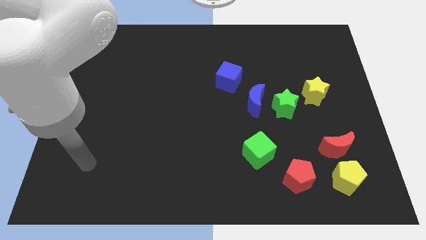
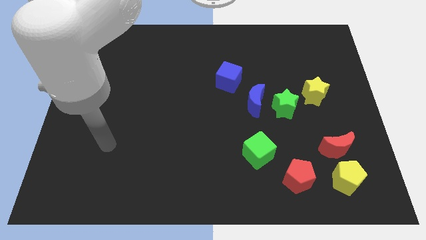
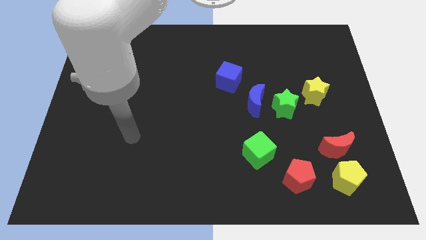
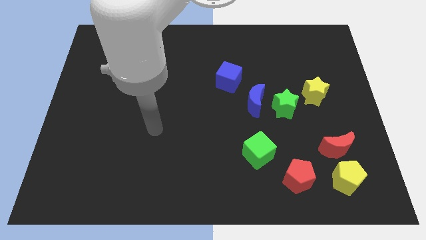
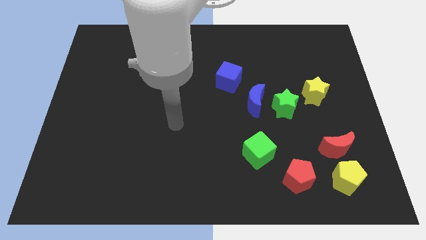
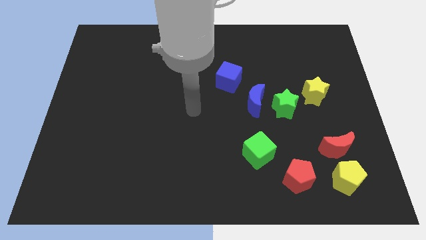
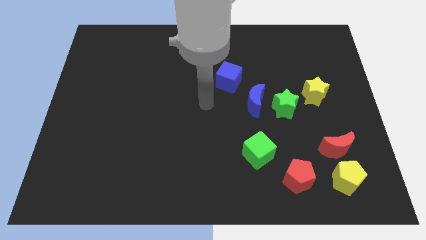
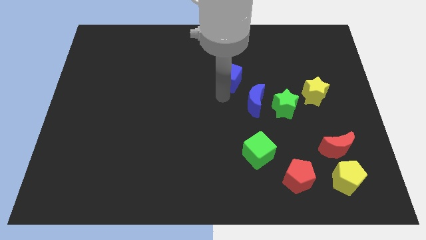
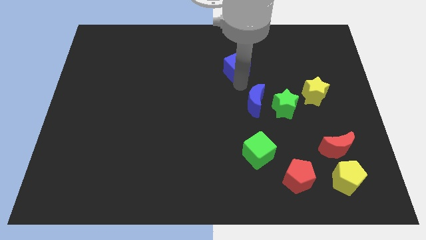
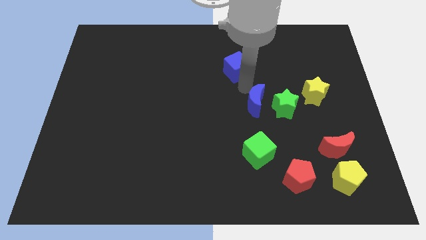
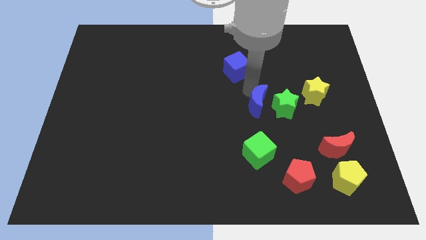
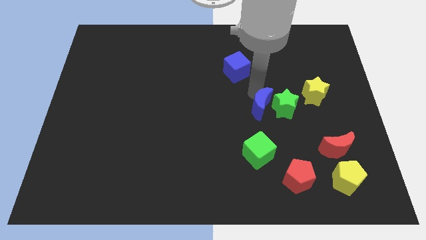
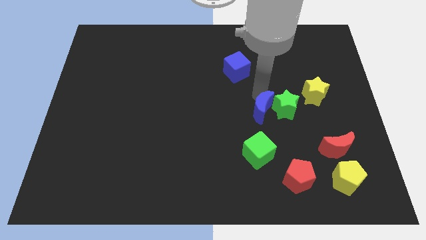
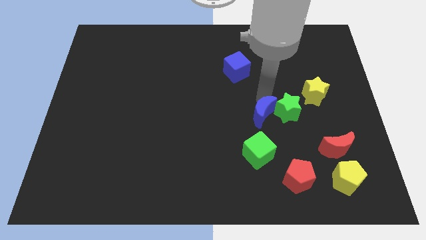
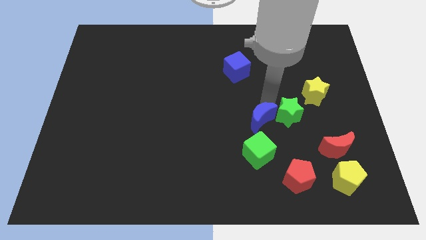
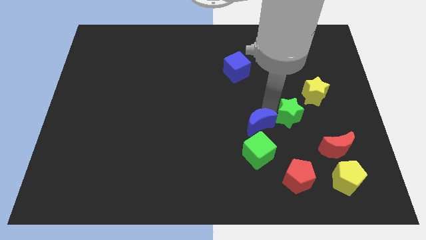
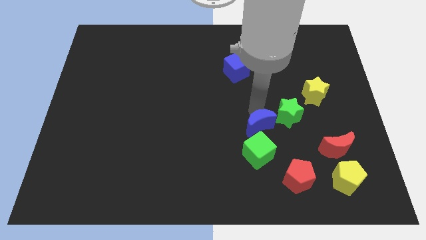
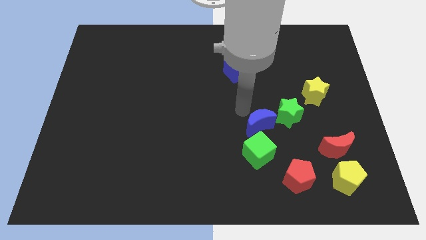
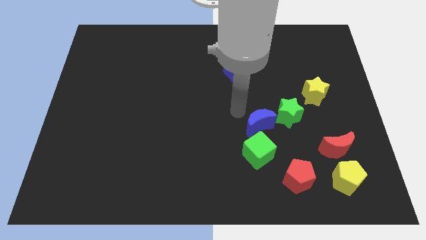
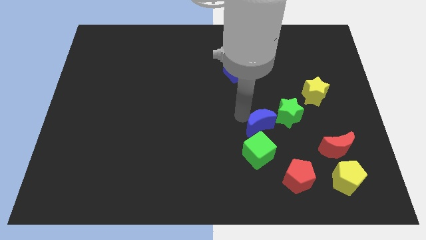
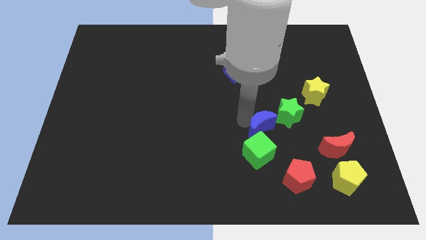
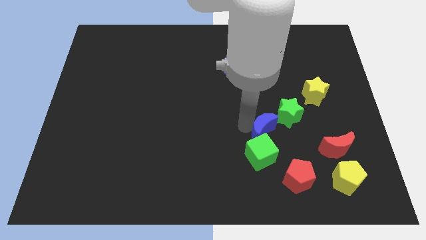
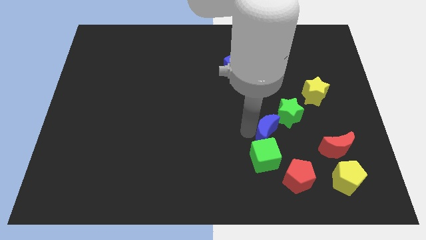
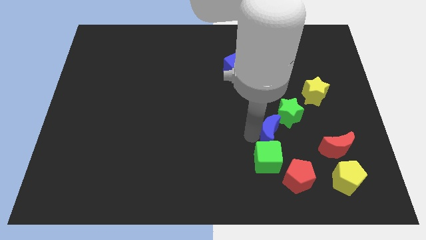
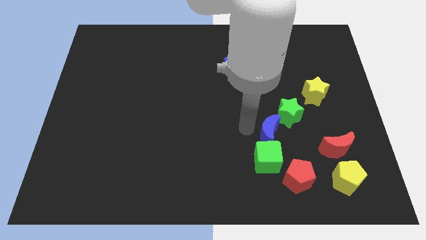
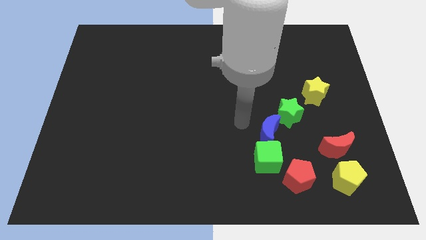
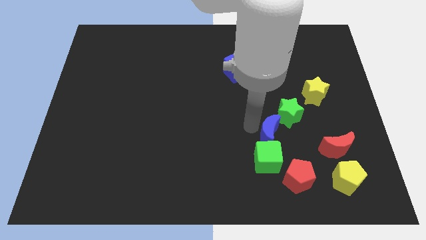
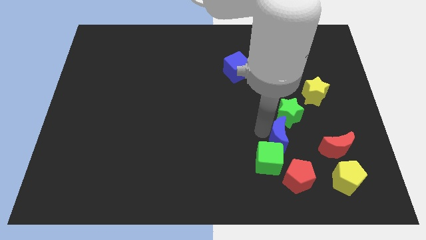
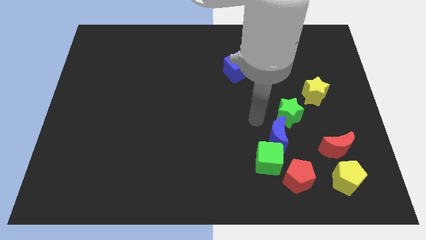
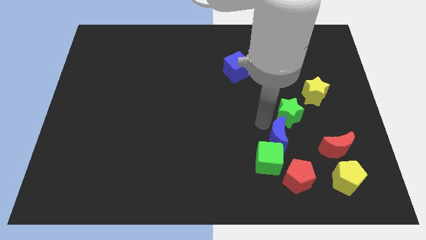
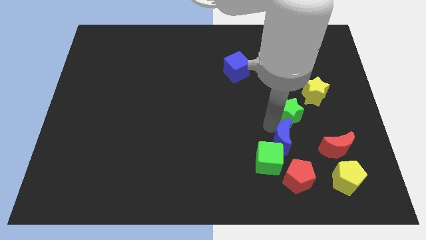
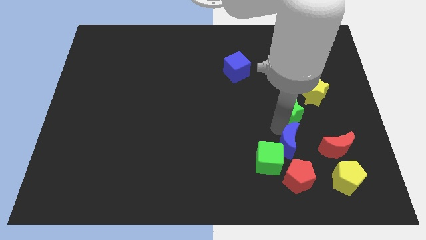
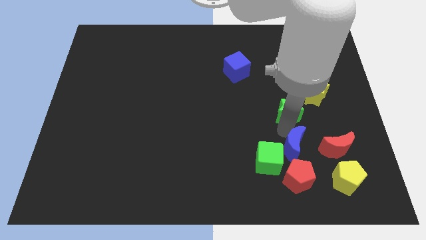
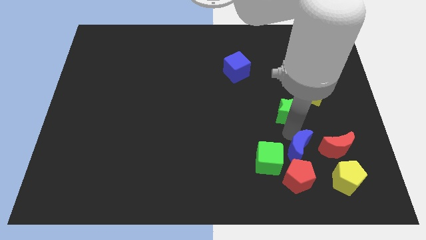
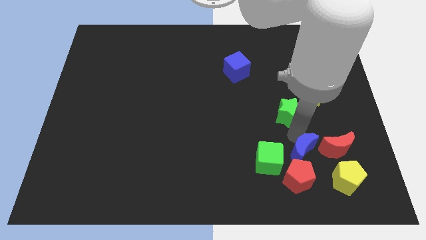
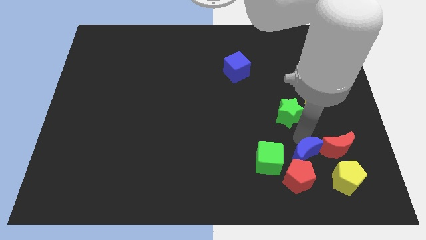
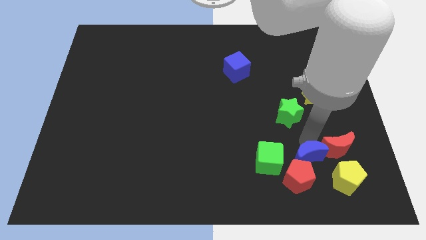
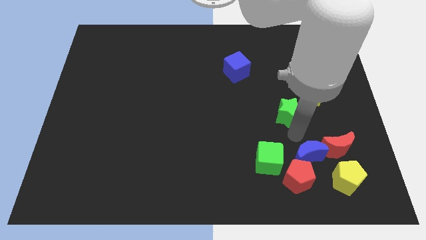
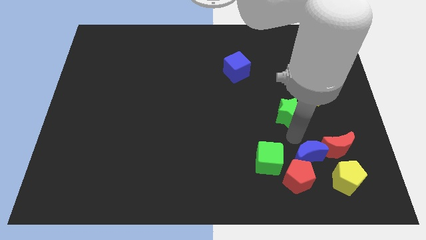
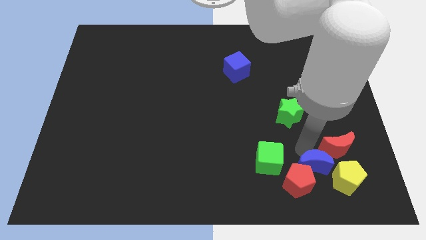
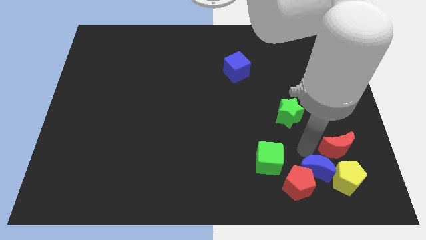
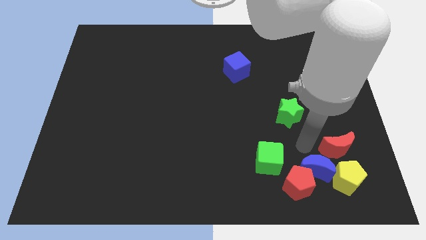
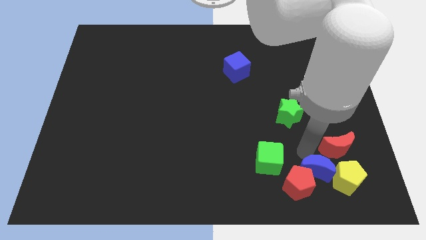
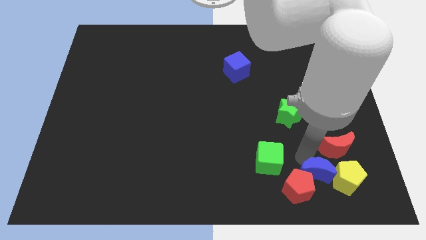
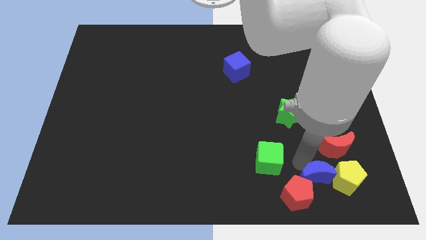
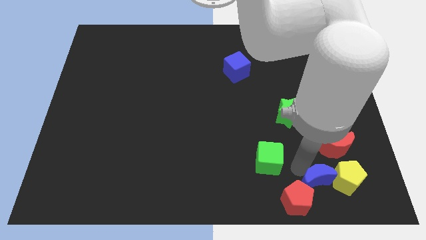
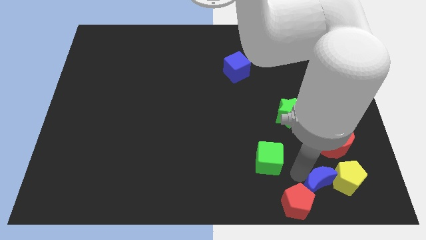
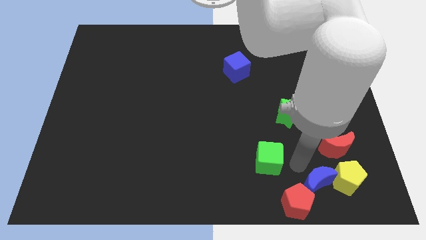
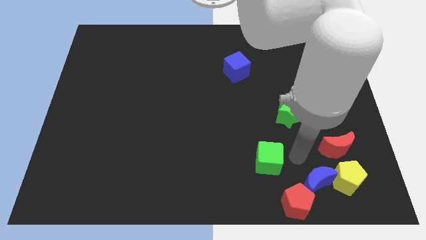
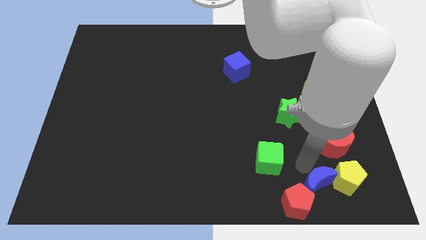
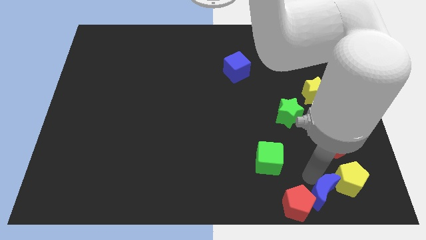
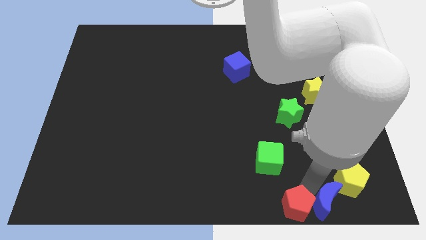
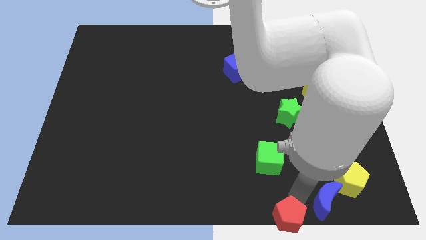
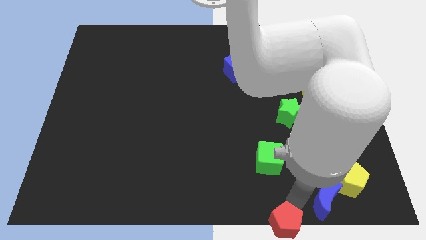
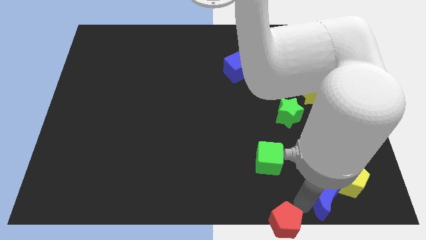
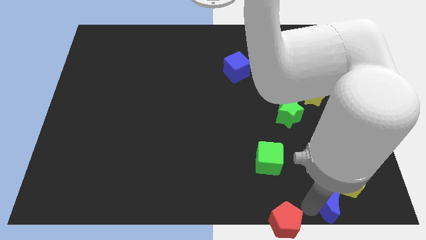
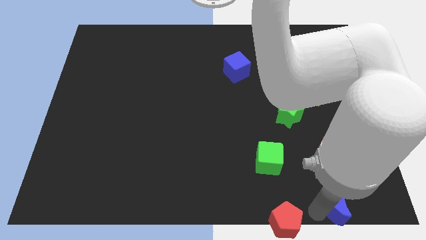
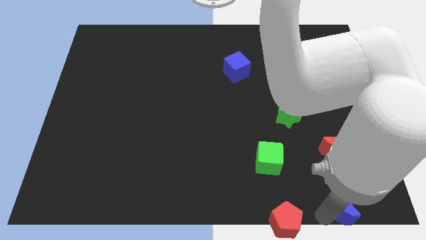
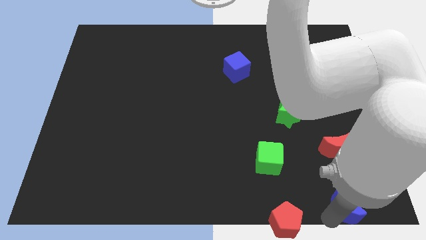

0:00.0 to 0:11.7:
move the blue moon to the bottom right corner
